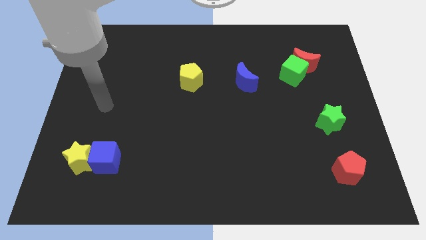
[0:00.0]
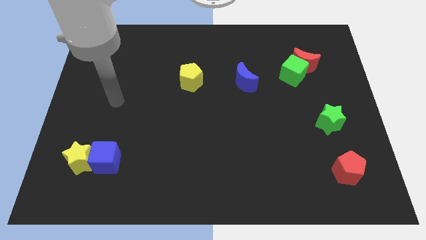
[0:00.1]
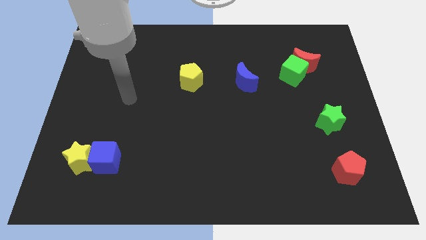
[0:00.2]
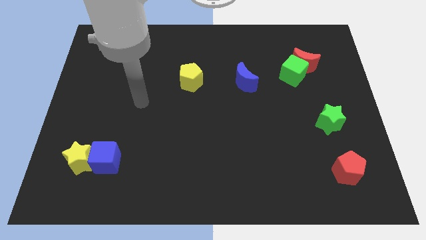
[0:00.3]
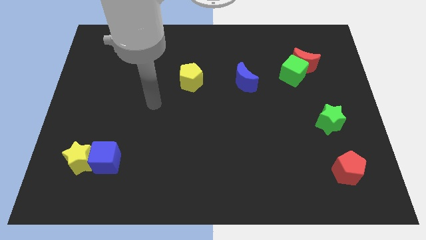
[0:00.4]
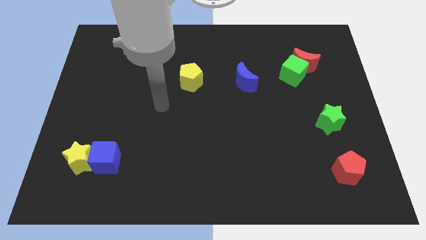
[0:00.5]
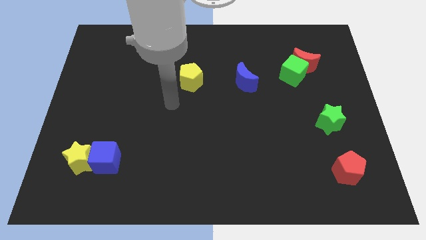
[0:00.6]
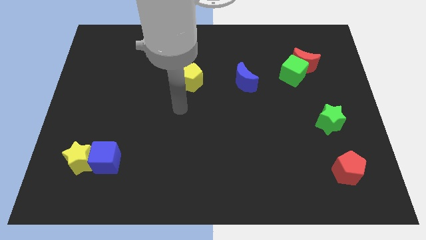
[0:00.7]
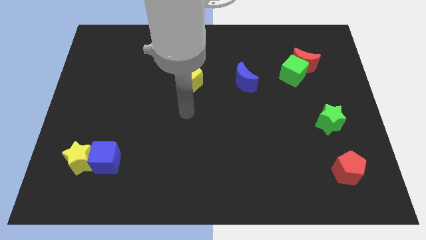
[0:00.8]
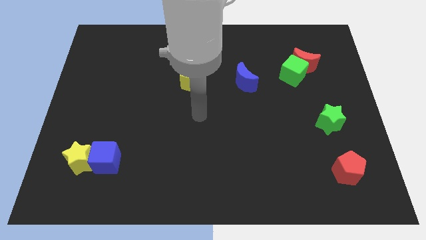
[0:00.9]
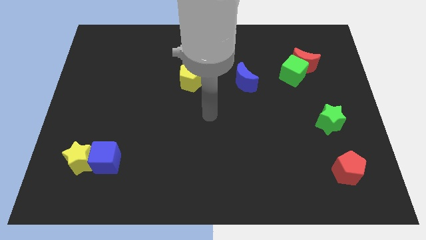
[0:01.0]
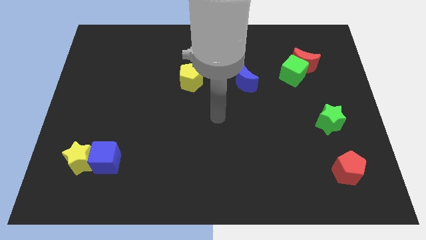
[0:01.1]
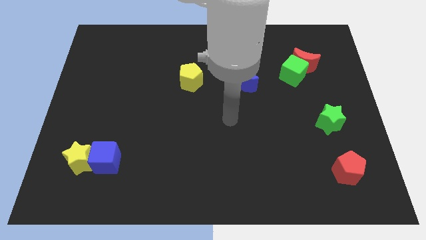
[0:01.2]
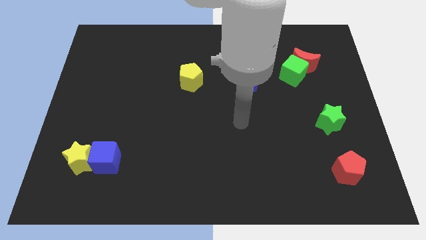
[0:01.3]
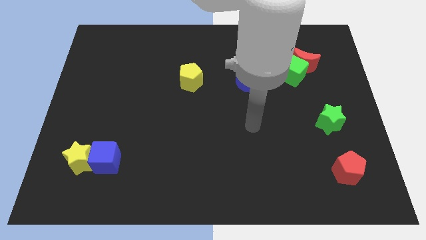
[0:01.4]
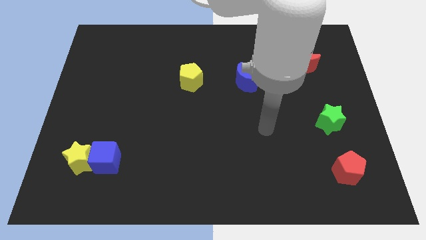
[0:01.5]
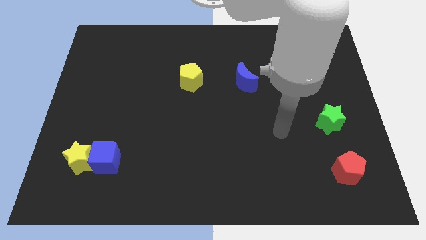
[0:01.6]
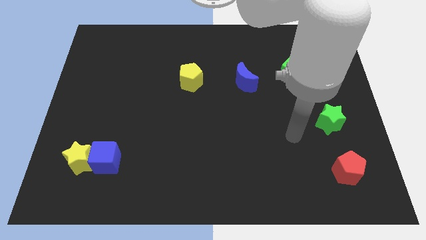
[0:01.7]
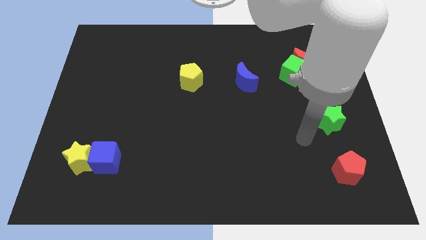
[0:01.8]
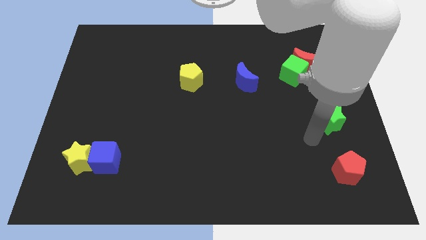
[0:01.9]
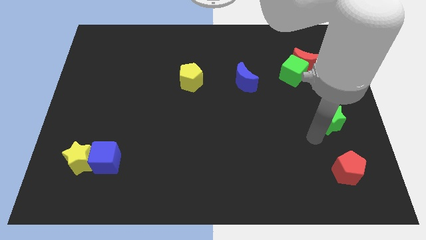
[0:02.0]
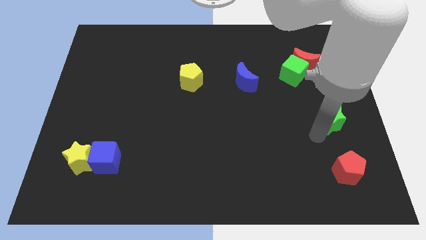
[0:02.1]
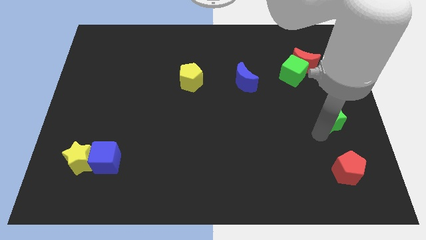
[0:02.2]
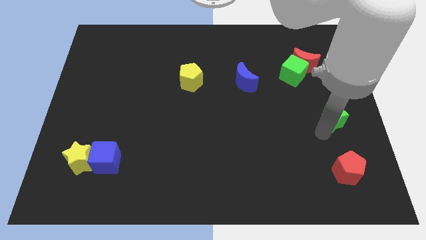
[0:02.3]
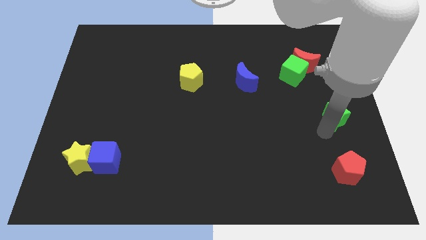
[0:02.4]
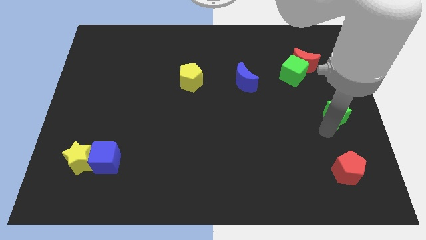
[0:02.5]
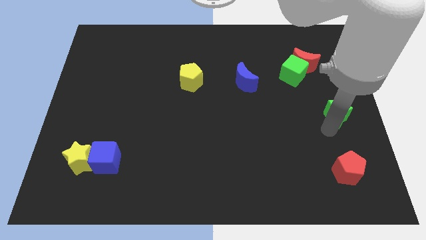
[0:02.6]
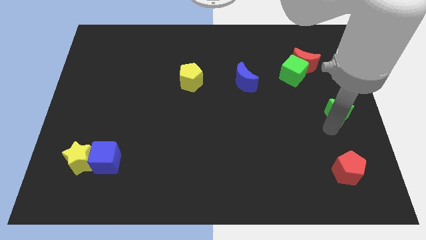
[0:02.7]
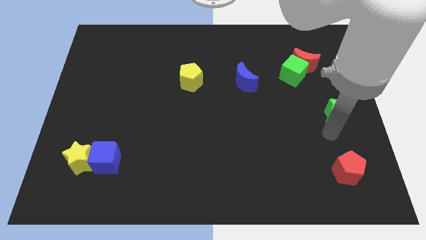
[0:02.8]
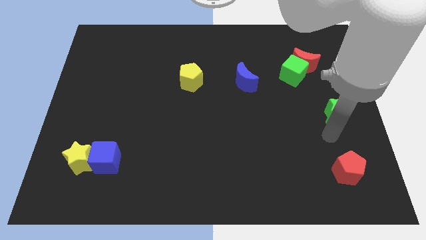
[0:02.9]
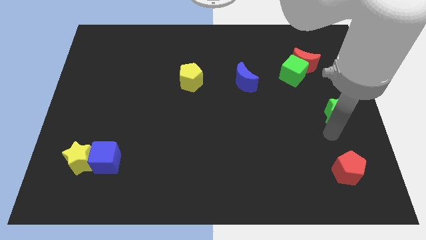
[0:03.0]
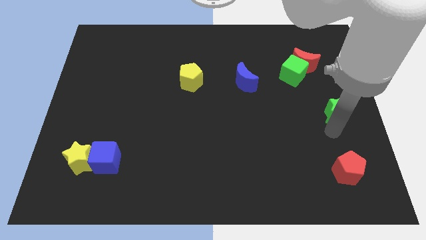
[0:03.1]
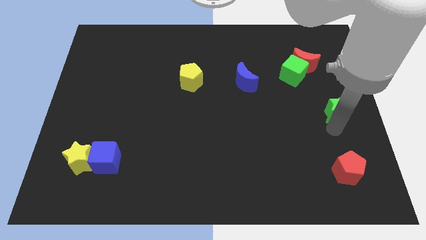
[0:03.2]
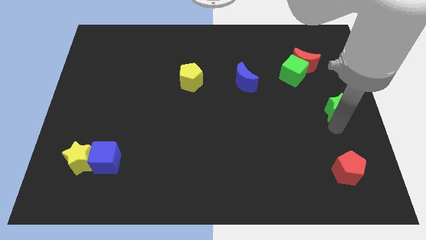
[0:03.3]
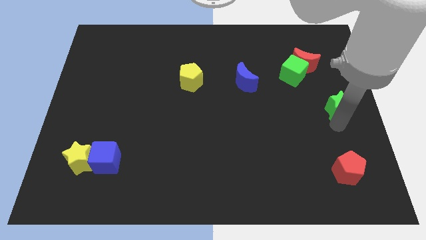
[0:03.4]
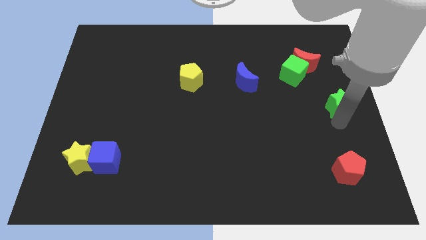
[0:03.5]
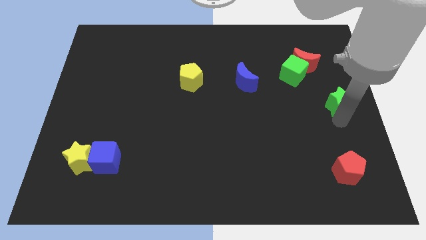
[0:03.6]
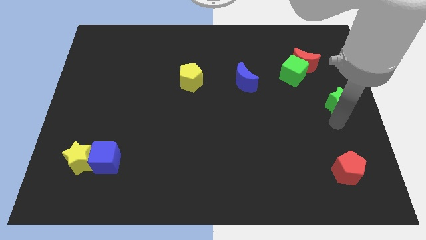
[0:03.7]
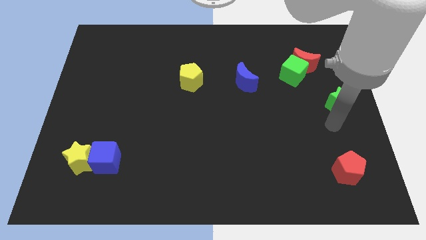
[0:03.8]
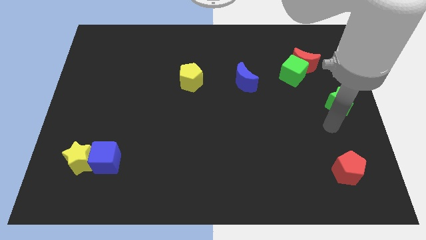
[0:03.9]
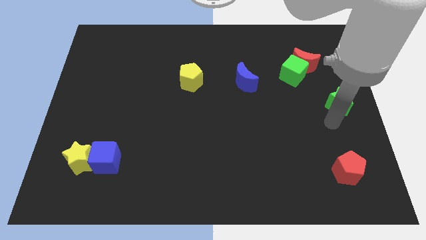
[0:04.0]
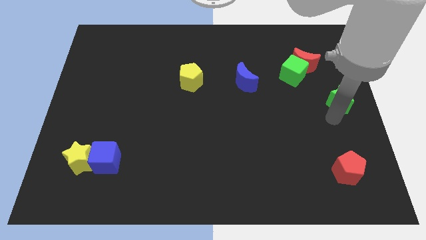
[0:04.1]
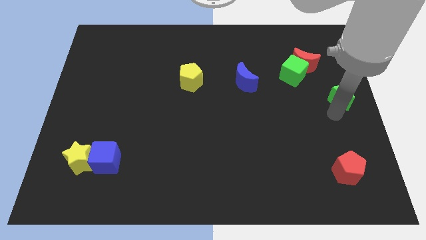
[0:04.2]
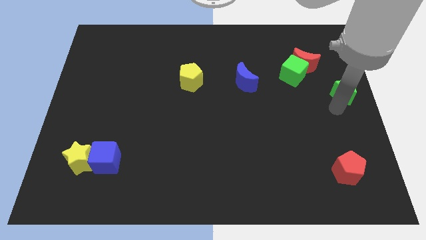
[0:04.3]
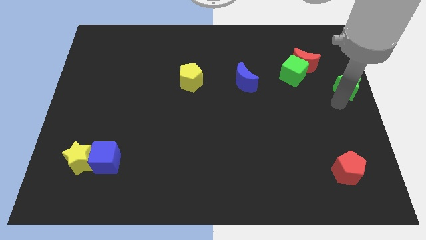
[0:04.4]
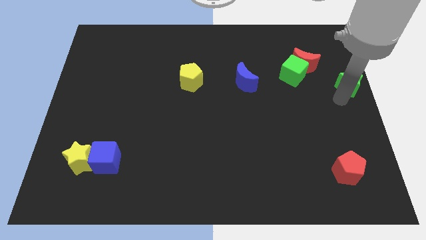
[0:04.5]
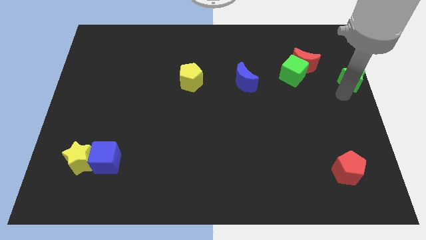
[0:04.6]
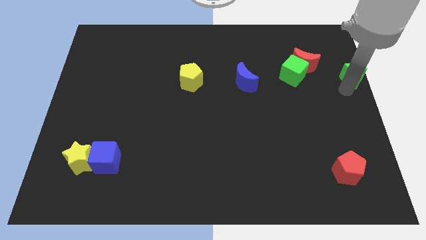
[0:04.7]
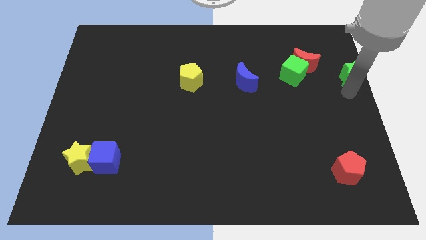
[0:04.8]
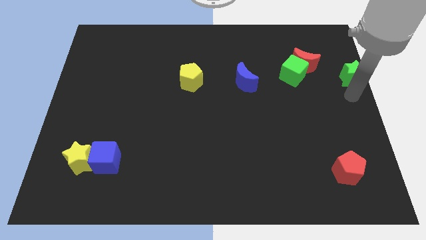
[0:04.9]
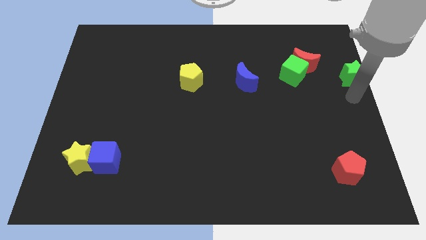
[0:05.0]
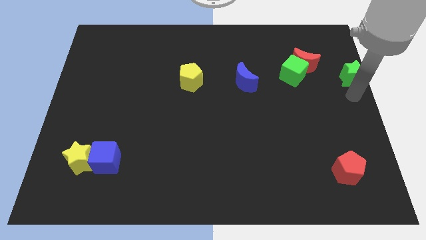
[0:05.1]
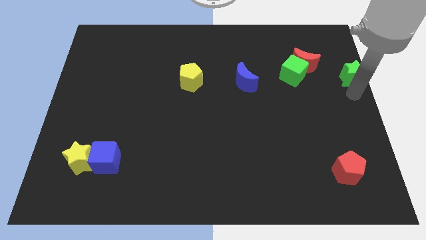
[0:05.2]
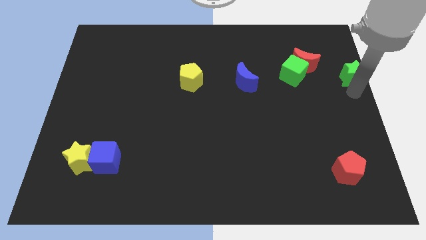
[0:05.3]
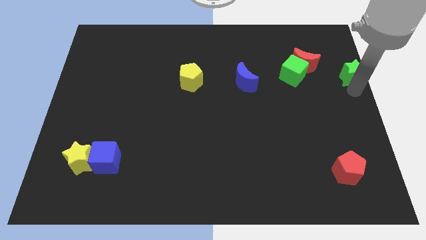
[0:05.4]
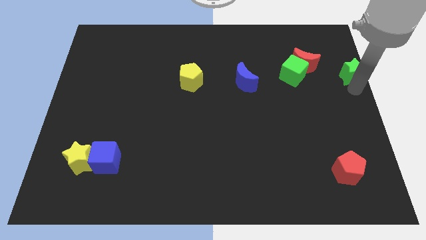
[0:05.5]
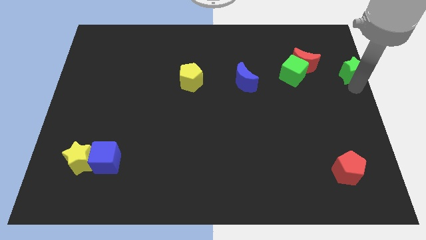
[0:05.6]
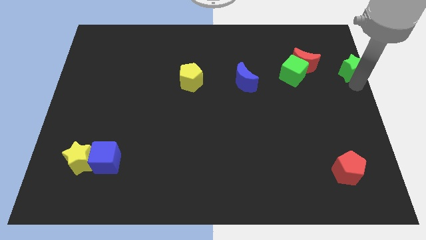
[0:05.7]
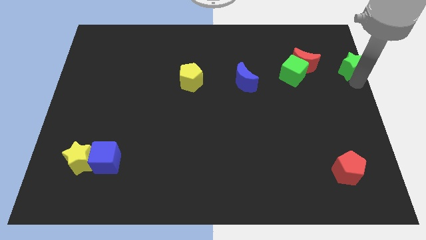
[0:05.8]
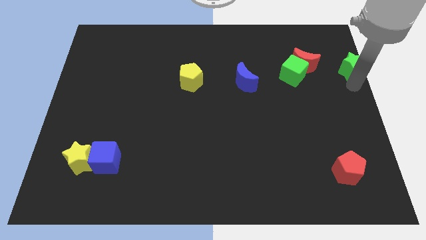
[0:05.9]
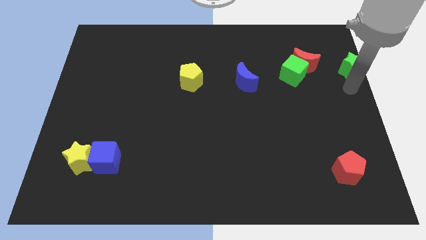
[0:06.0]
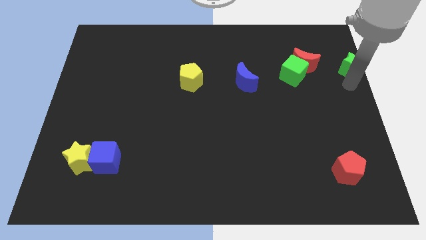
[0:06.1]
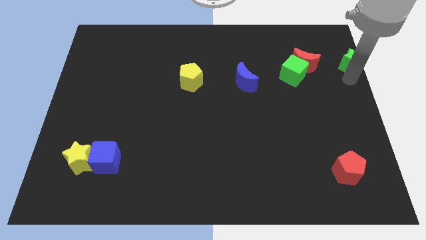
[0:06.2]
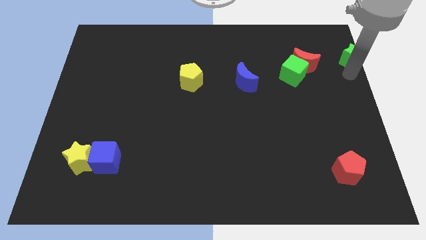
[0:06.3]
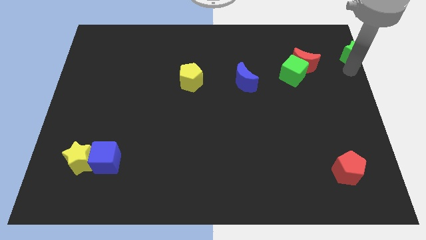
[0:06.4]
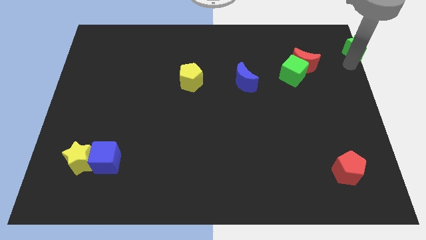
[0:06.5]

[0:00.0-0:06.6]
slide the green star to the top right of the board
